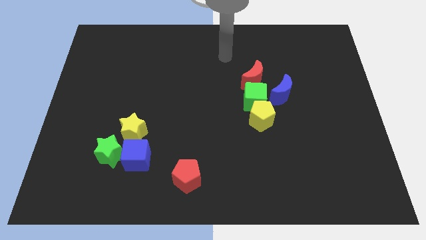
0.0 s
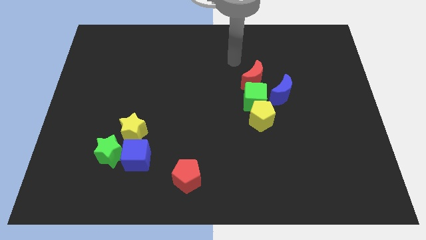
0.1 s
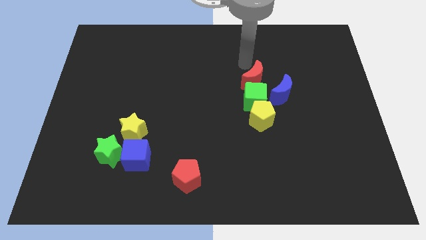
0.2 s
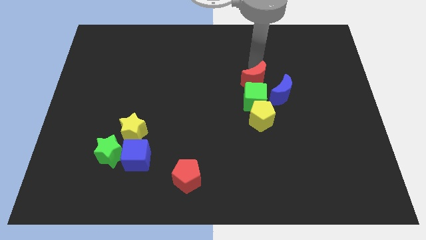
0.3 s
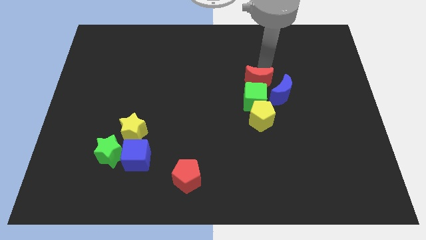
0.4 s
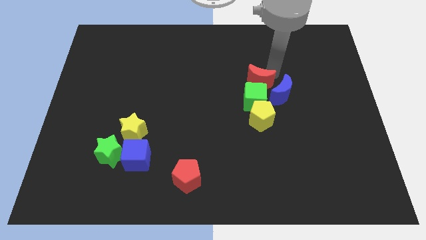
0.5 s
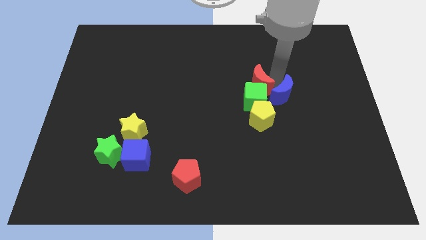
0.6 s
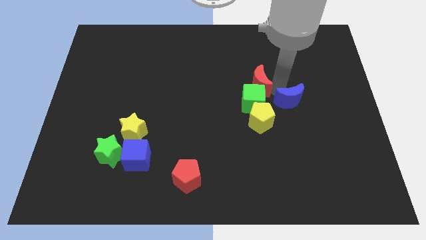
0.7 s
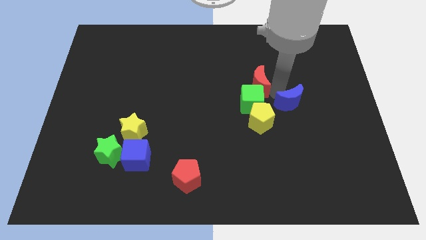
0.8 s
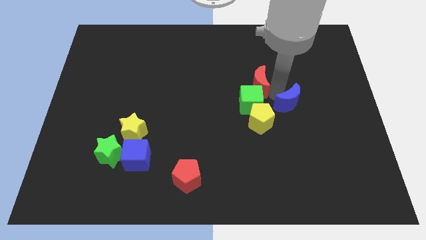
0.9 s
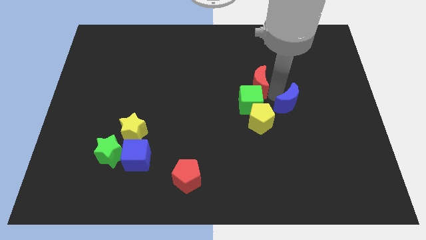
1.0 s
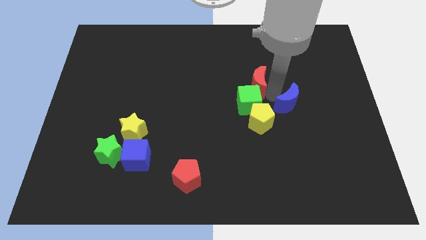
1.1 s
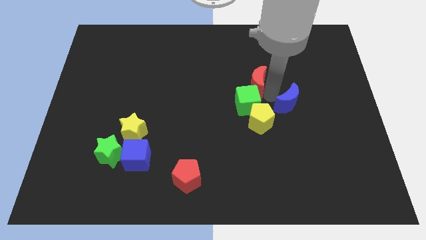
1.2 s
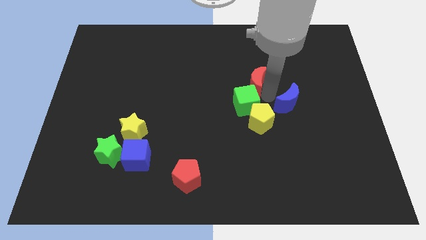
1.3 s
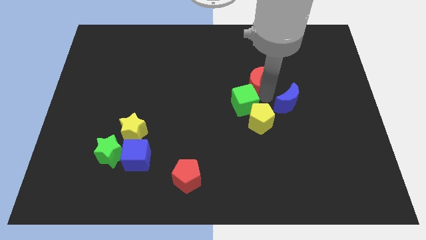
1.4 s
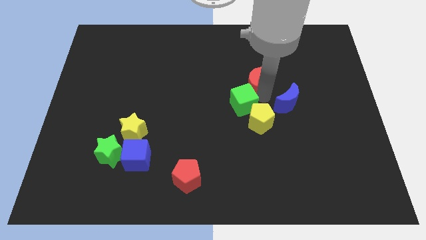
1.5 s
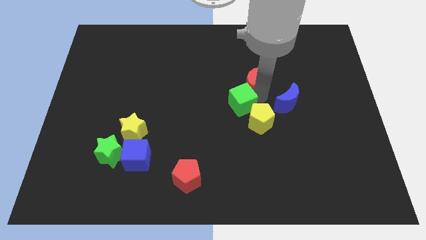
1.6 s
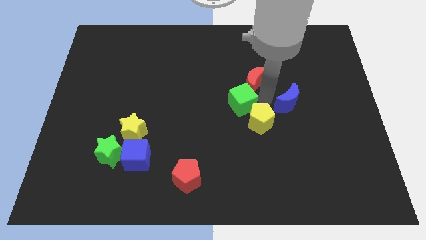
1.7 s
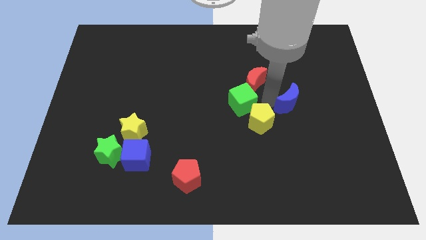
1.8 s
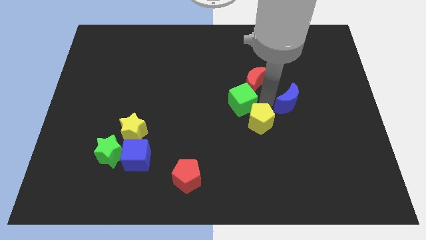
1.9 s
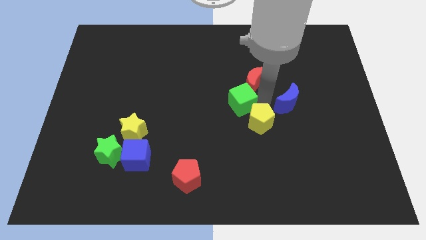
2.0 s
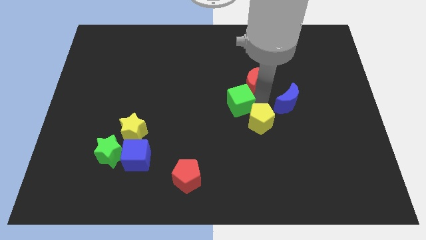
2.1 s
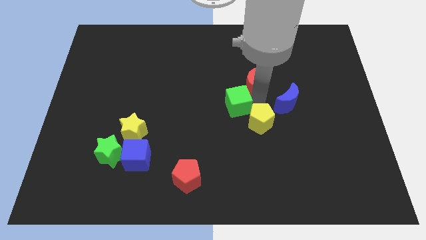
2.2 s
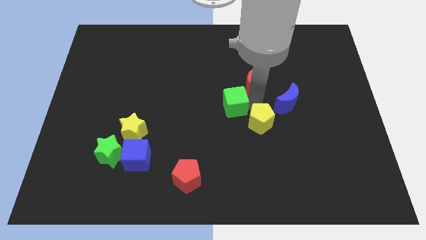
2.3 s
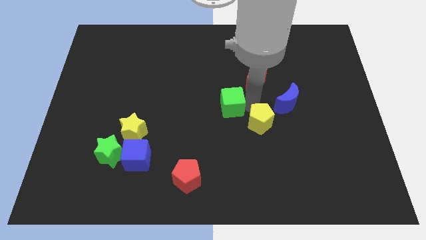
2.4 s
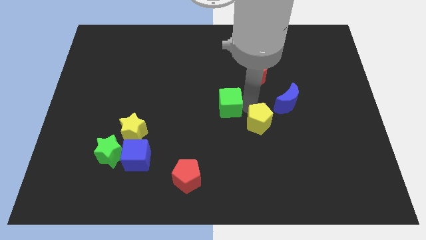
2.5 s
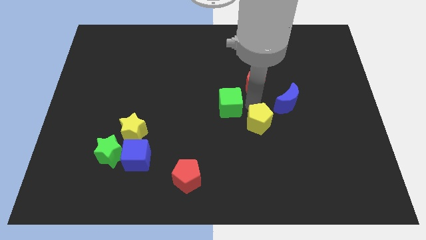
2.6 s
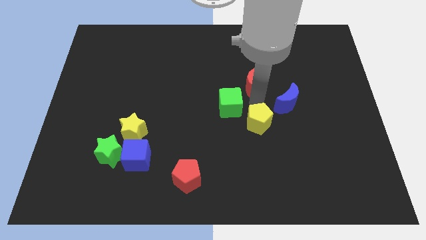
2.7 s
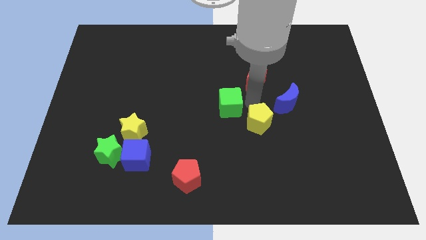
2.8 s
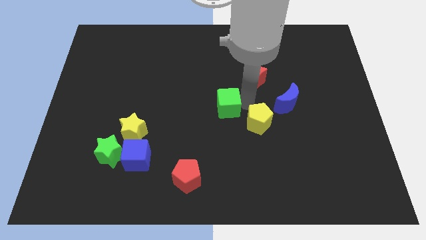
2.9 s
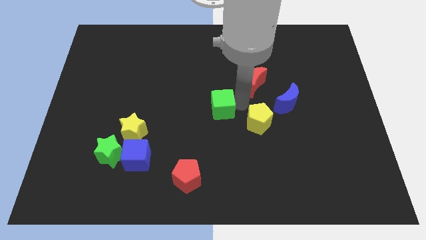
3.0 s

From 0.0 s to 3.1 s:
pull the green cube apart from the yellow pentagon, red moon, and blue moon

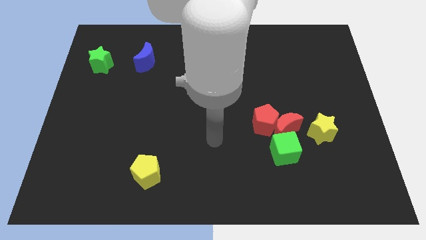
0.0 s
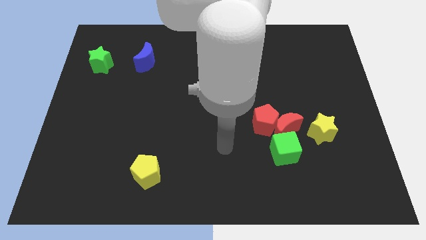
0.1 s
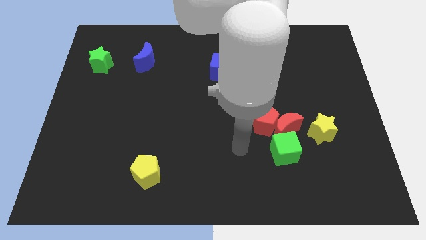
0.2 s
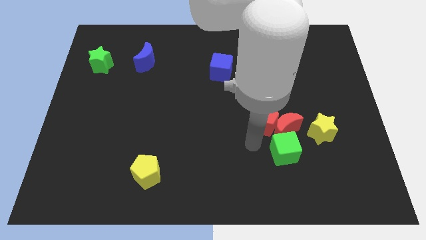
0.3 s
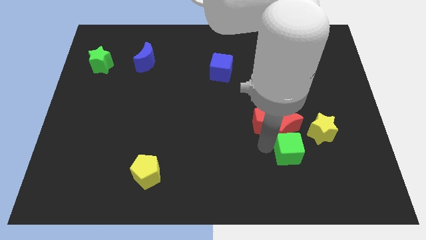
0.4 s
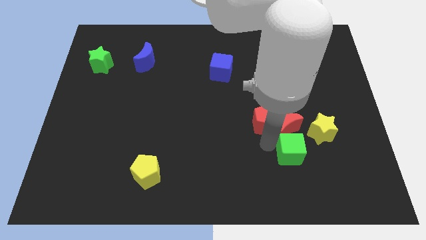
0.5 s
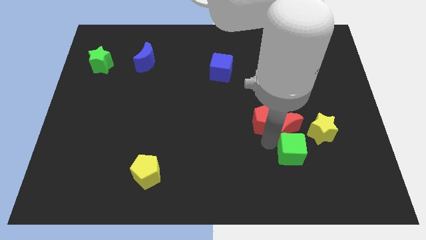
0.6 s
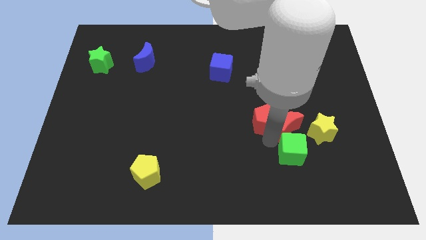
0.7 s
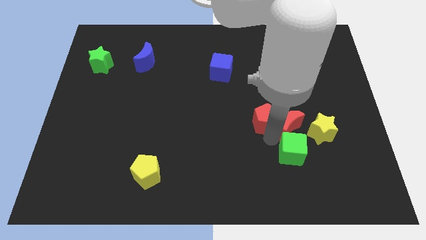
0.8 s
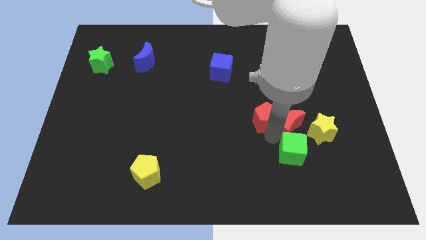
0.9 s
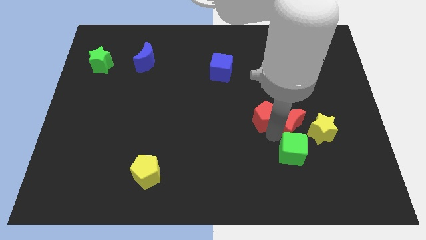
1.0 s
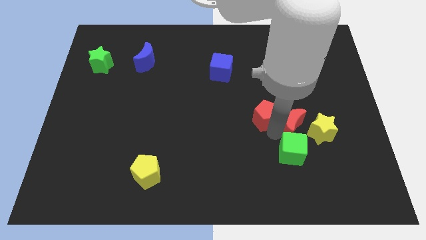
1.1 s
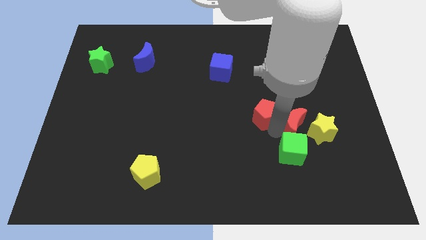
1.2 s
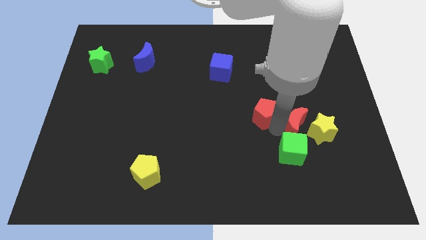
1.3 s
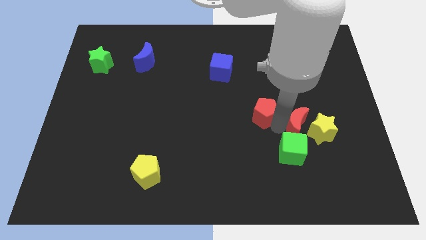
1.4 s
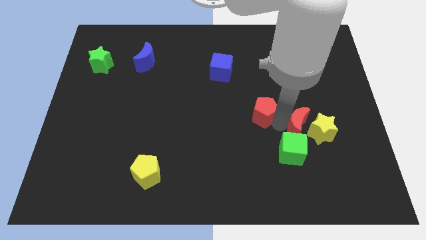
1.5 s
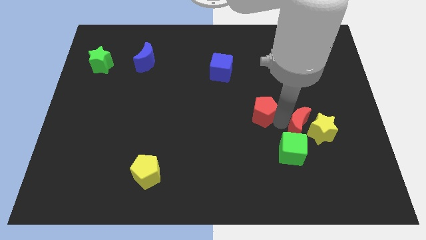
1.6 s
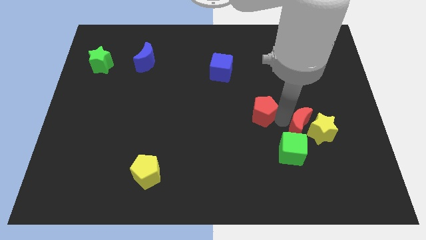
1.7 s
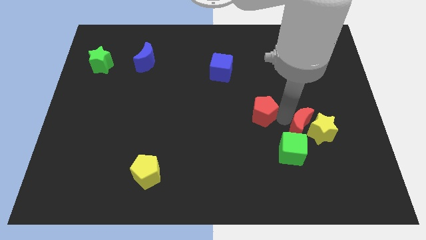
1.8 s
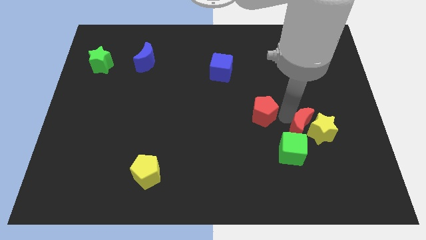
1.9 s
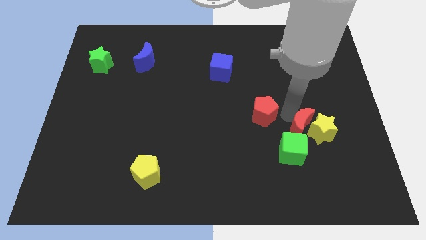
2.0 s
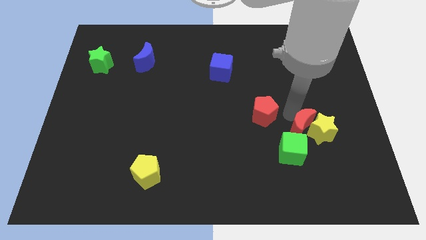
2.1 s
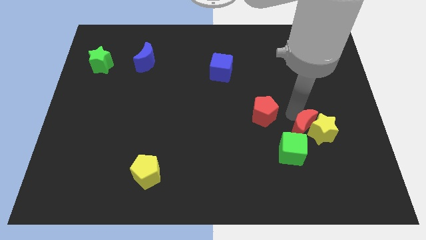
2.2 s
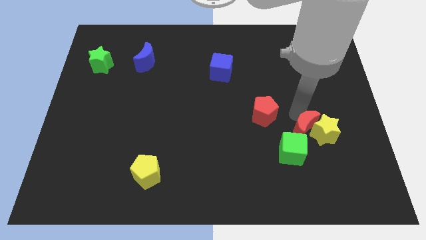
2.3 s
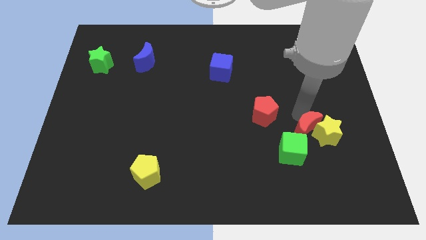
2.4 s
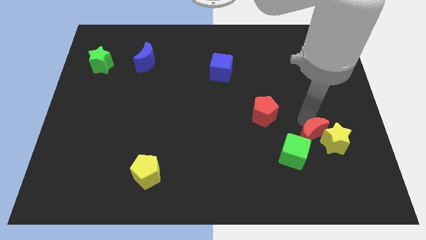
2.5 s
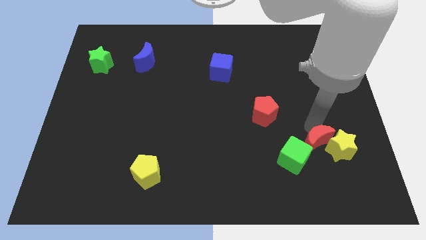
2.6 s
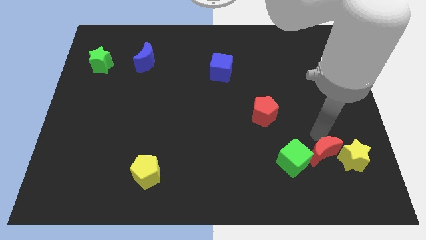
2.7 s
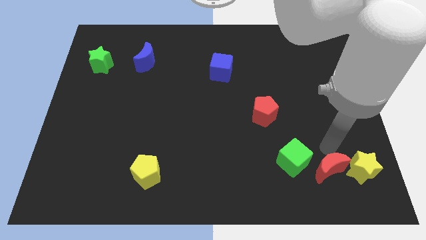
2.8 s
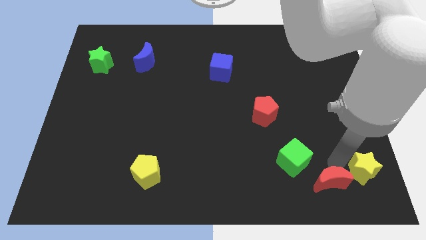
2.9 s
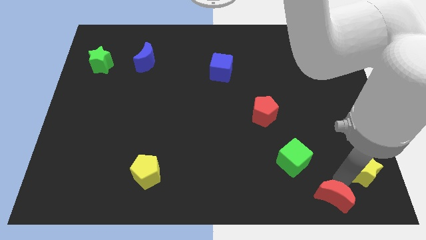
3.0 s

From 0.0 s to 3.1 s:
pull the red moon apart from the red pentagon, green cube, and yellow star

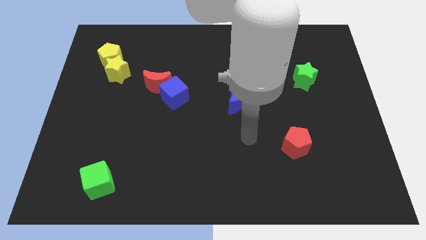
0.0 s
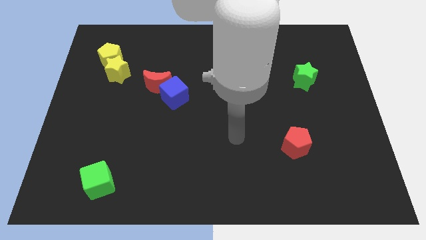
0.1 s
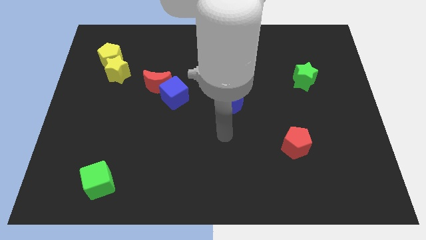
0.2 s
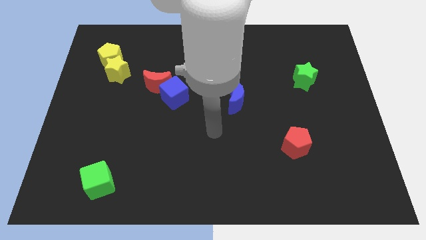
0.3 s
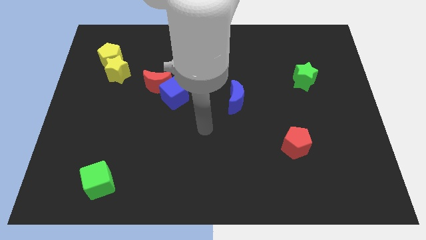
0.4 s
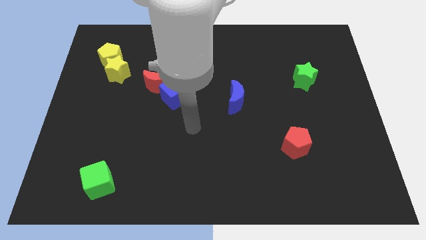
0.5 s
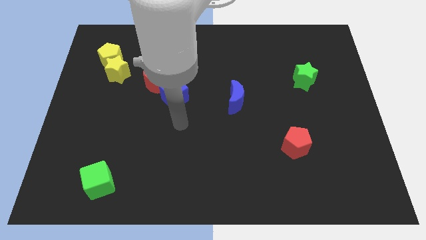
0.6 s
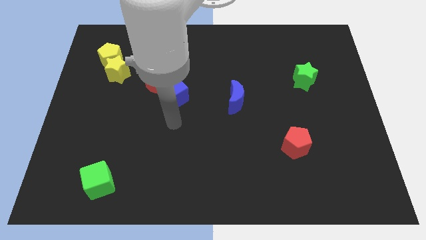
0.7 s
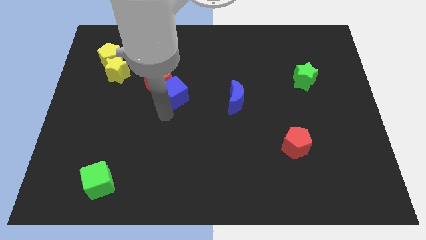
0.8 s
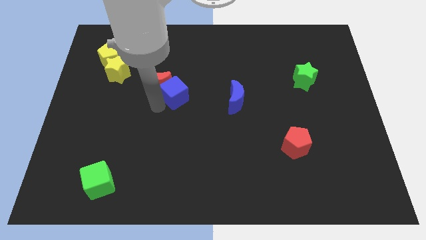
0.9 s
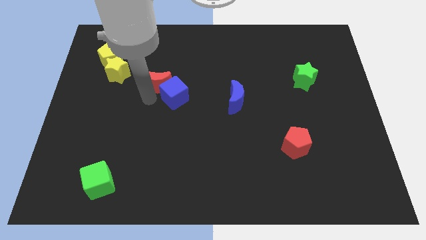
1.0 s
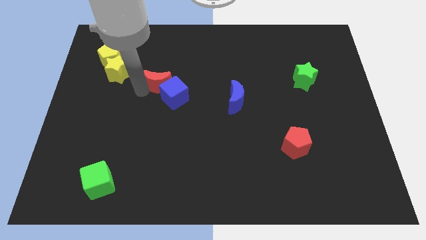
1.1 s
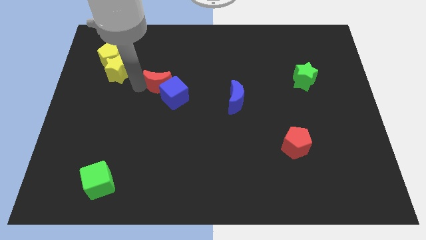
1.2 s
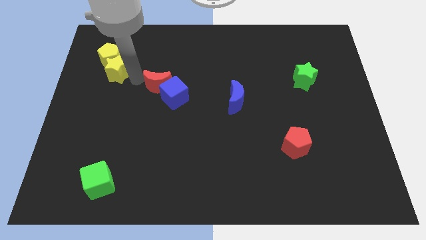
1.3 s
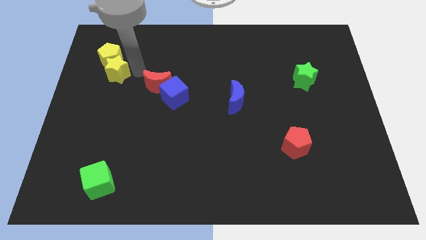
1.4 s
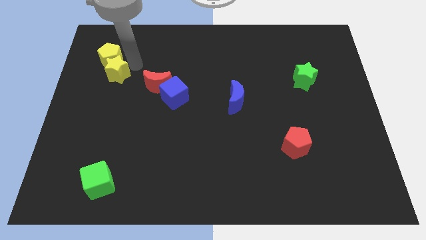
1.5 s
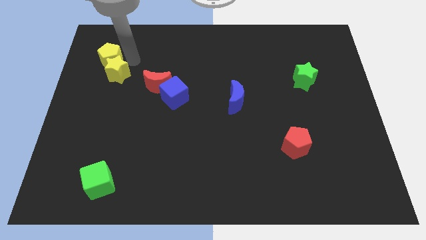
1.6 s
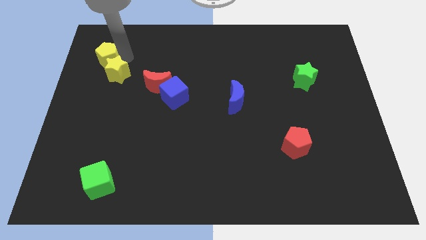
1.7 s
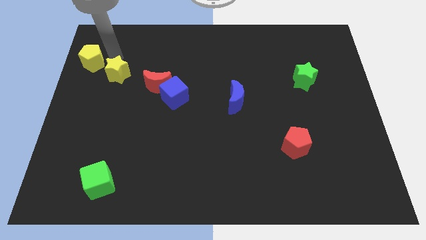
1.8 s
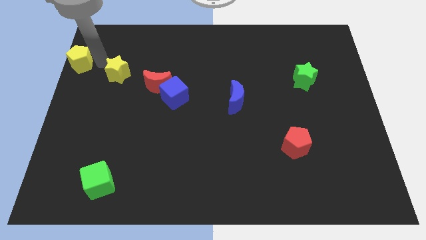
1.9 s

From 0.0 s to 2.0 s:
pull the yellow star apart from the yellow pentagon

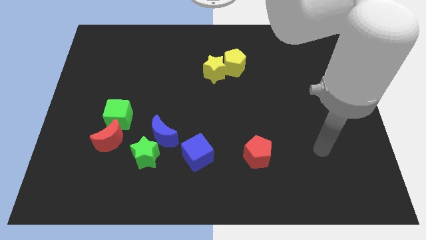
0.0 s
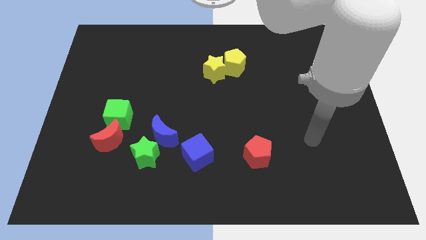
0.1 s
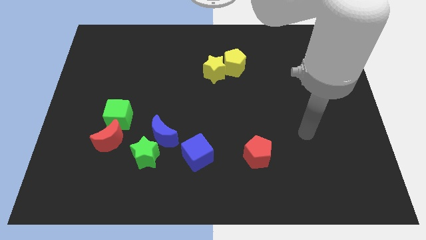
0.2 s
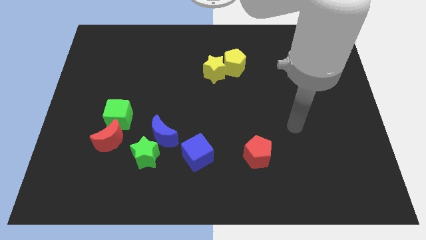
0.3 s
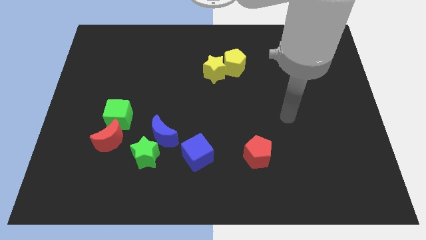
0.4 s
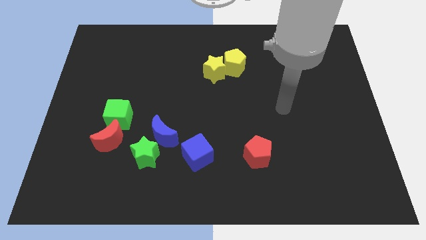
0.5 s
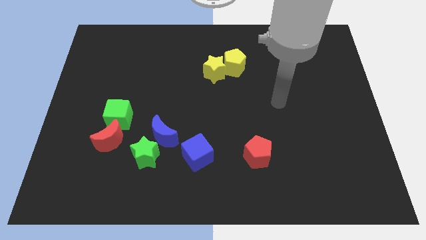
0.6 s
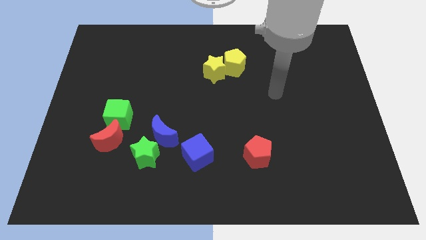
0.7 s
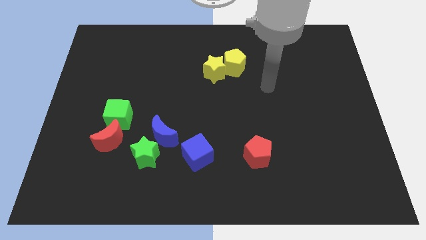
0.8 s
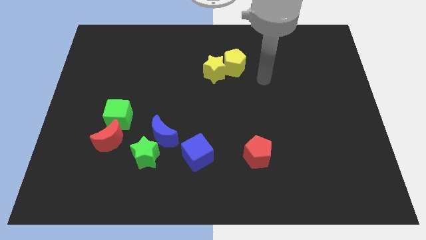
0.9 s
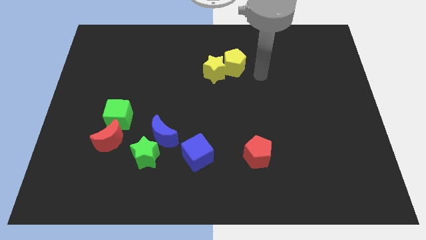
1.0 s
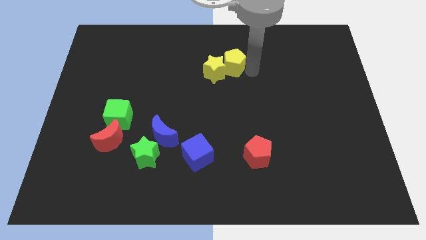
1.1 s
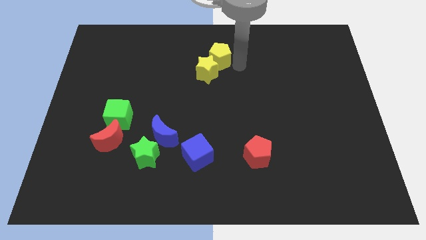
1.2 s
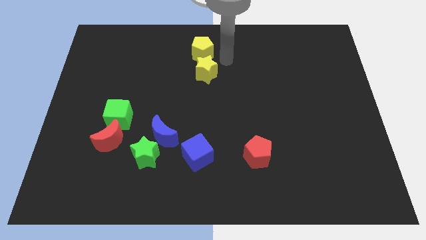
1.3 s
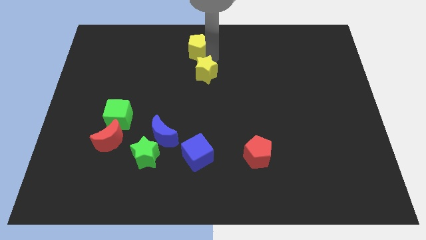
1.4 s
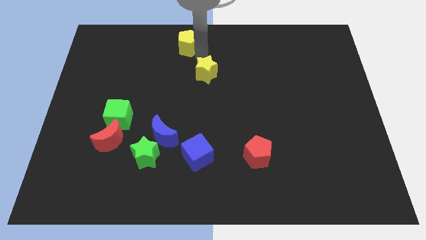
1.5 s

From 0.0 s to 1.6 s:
separate the yellow star from the yellow pentagon
